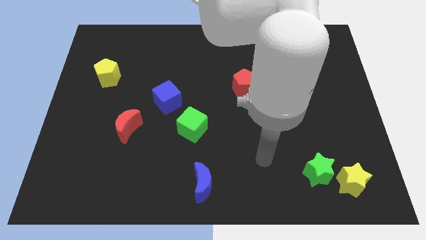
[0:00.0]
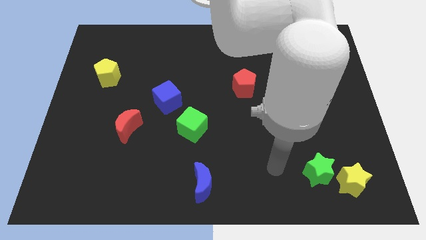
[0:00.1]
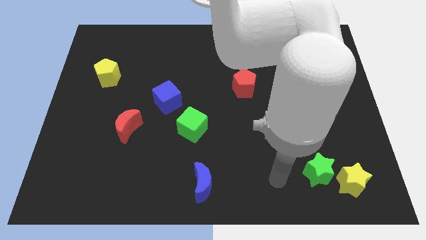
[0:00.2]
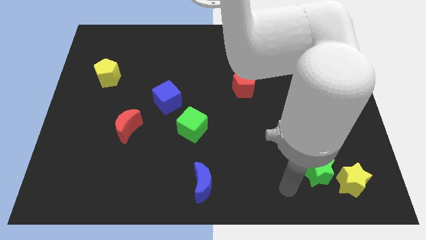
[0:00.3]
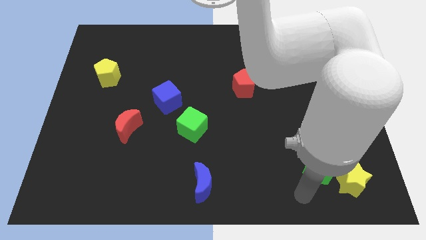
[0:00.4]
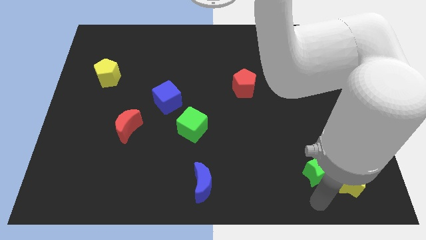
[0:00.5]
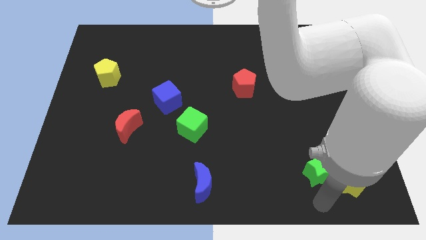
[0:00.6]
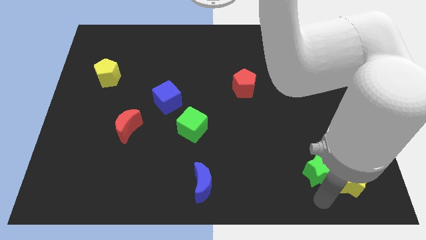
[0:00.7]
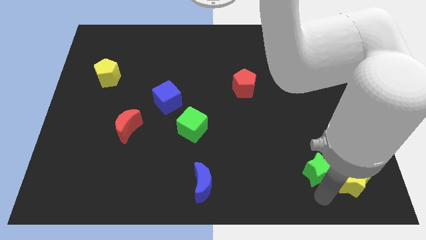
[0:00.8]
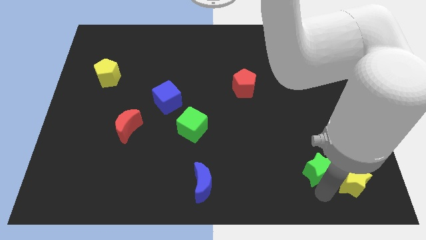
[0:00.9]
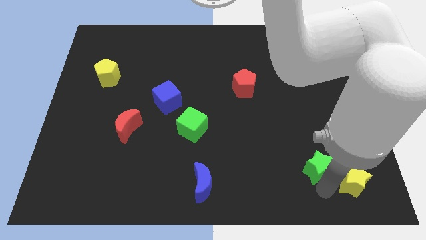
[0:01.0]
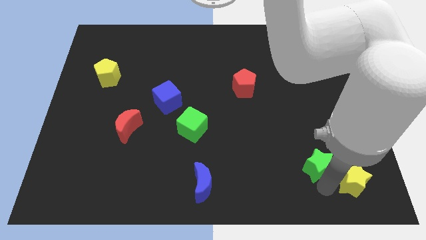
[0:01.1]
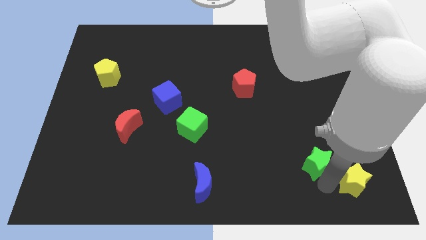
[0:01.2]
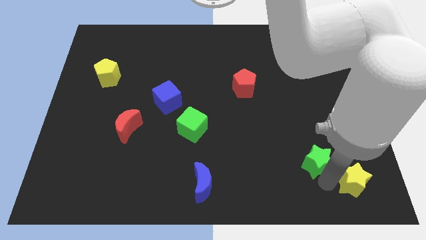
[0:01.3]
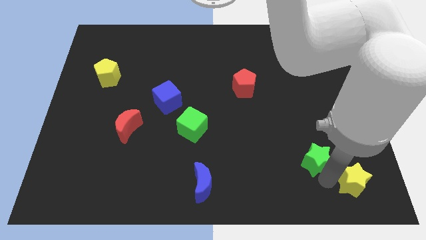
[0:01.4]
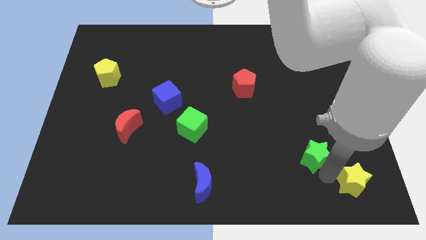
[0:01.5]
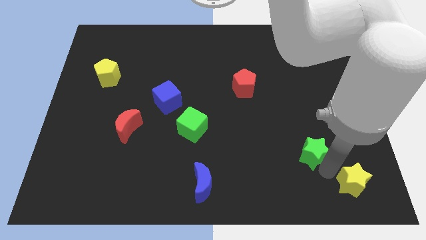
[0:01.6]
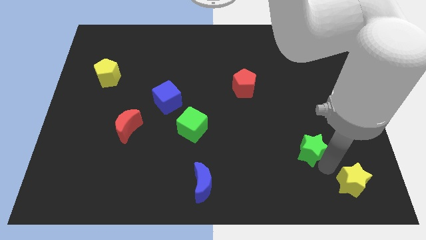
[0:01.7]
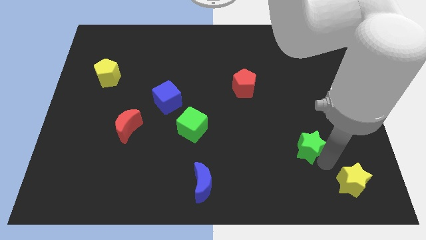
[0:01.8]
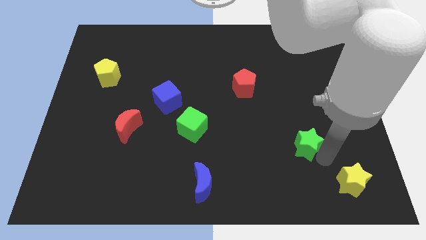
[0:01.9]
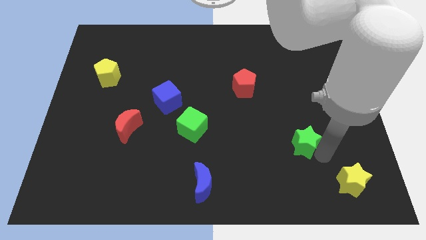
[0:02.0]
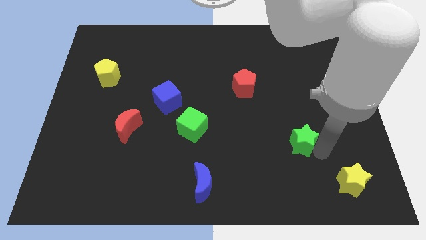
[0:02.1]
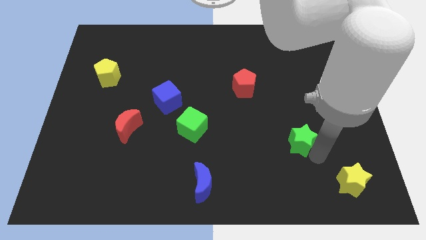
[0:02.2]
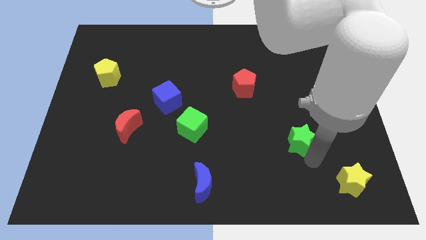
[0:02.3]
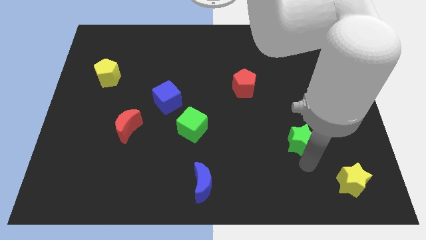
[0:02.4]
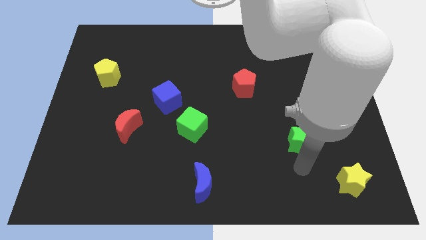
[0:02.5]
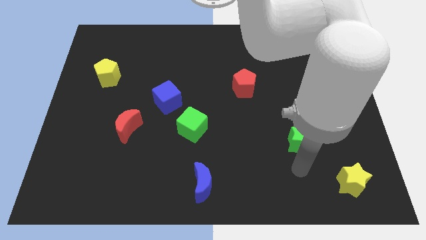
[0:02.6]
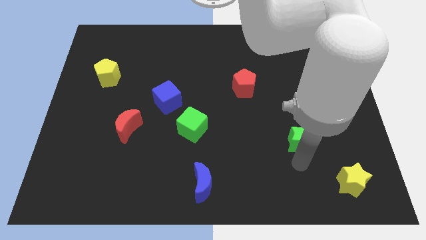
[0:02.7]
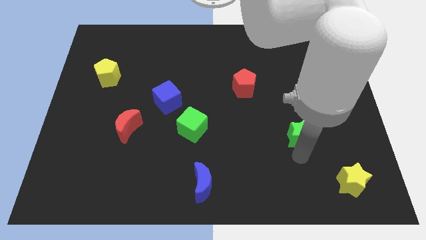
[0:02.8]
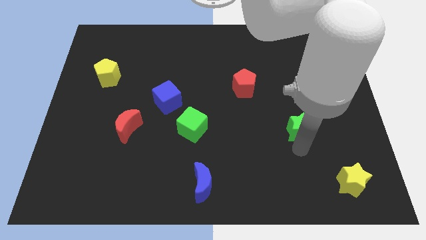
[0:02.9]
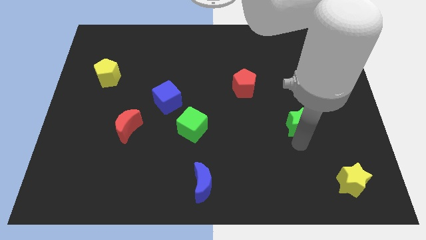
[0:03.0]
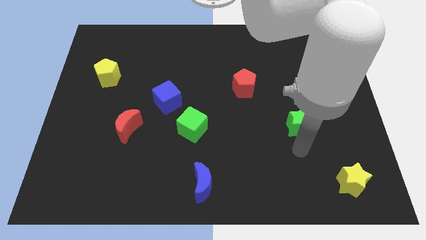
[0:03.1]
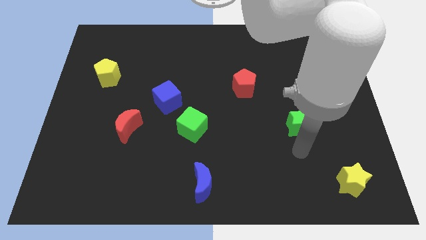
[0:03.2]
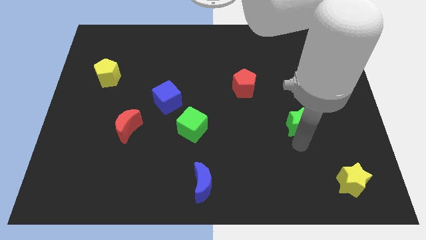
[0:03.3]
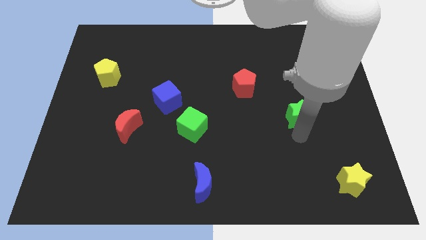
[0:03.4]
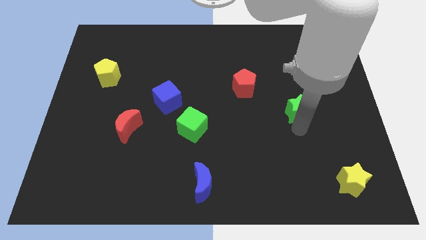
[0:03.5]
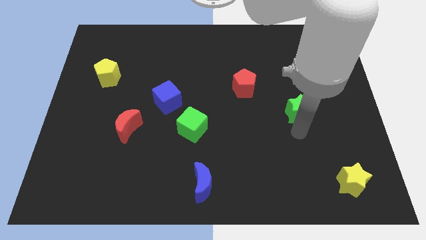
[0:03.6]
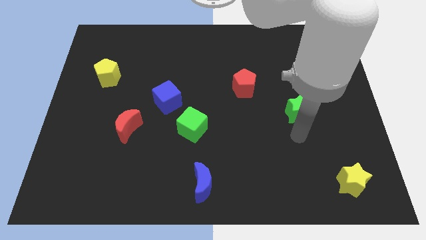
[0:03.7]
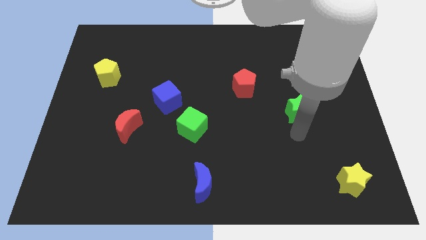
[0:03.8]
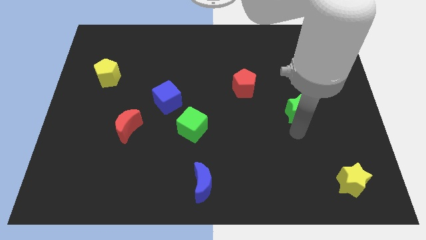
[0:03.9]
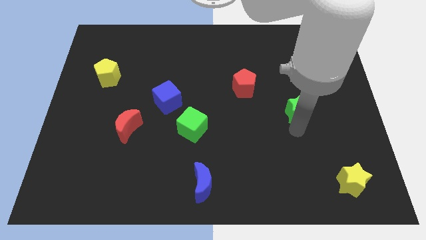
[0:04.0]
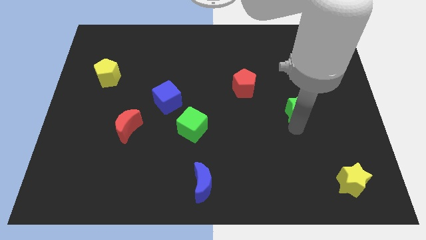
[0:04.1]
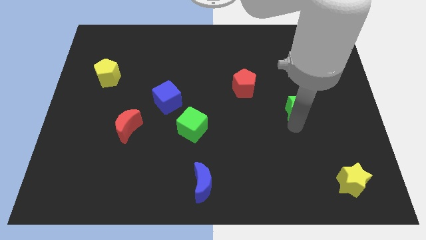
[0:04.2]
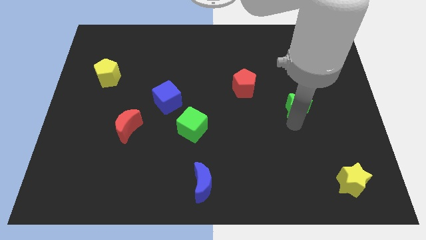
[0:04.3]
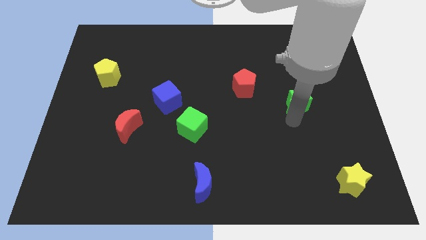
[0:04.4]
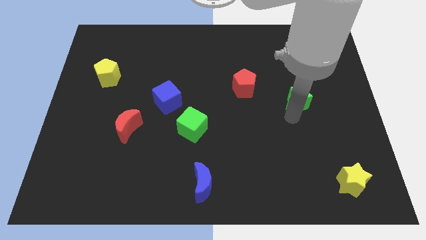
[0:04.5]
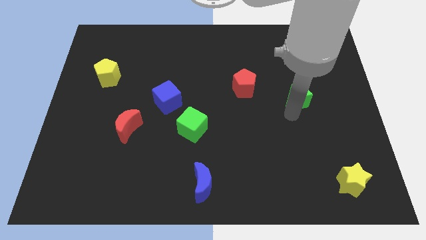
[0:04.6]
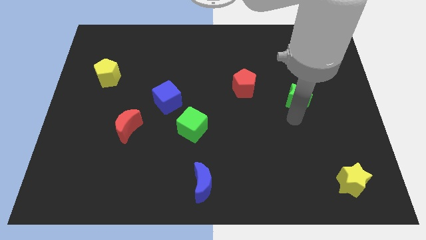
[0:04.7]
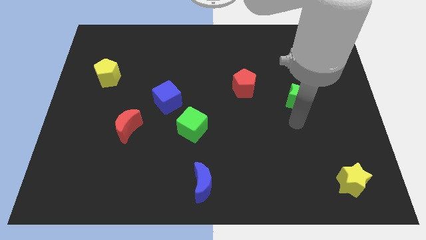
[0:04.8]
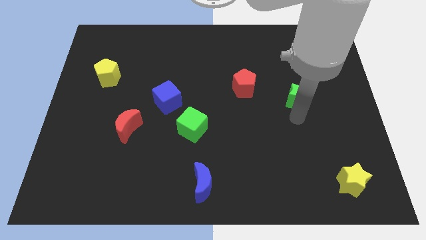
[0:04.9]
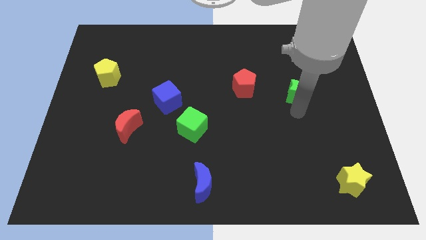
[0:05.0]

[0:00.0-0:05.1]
slide the green star up

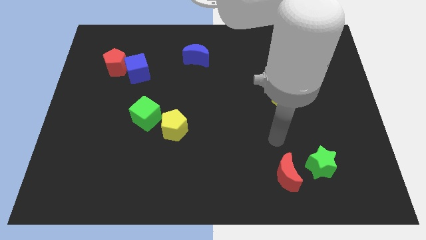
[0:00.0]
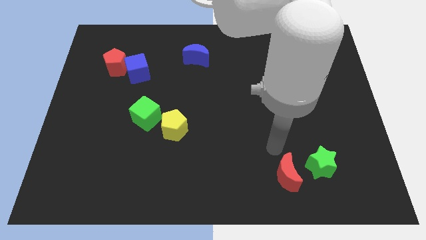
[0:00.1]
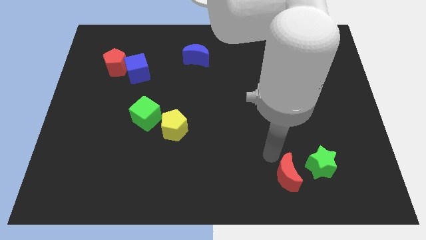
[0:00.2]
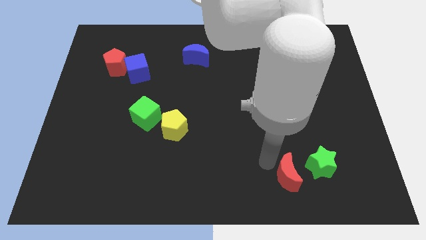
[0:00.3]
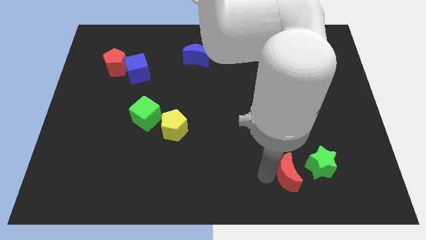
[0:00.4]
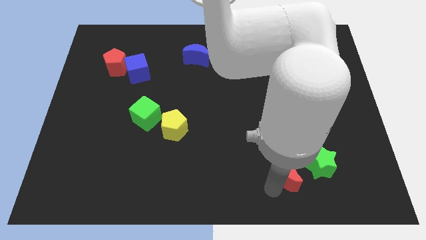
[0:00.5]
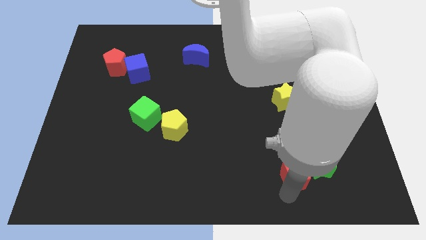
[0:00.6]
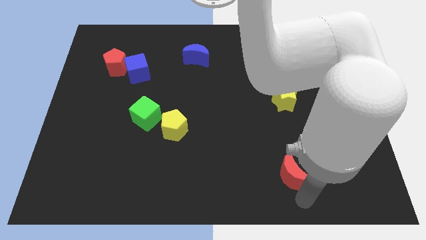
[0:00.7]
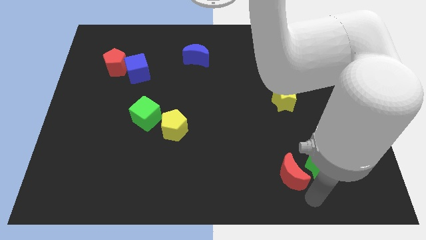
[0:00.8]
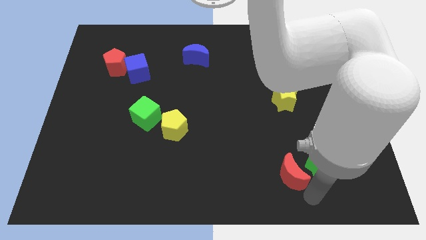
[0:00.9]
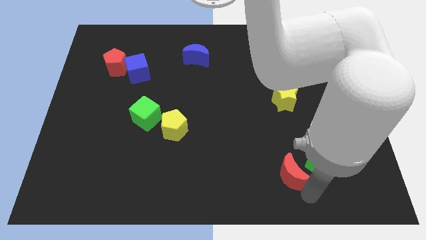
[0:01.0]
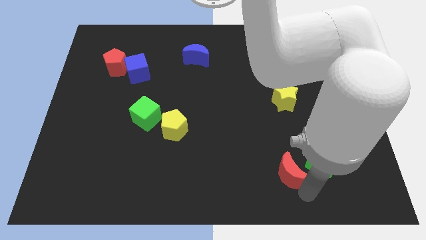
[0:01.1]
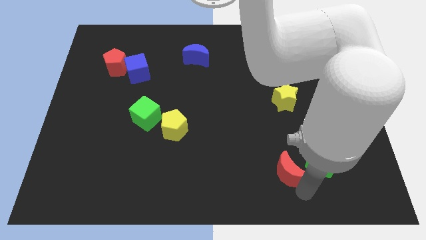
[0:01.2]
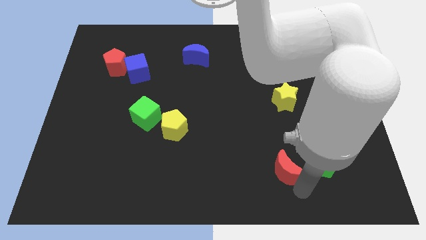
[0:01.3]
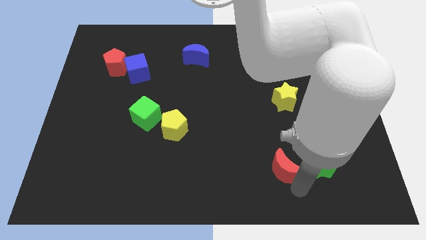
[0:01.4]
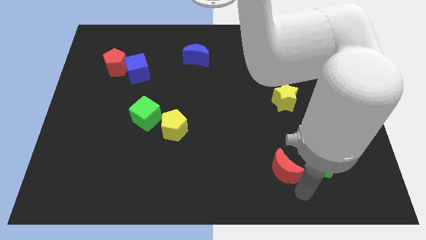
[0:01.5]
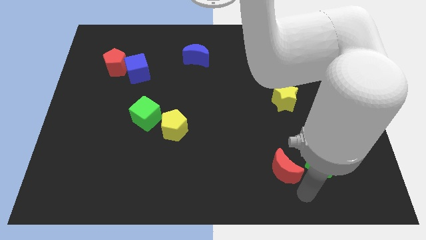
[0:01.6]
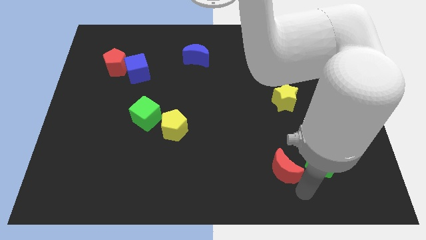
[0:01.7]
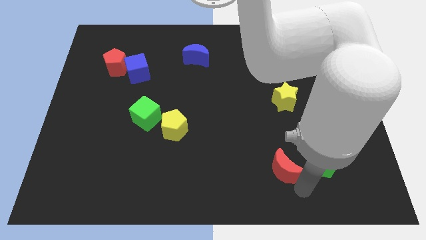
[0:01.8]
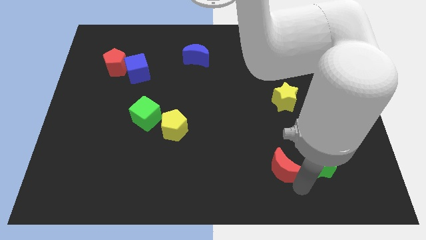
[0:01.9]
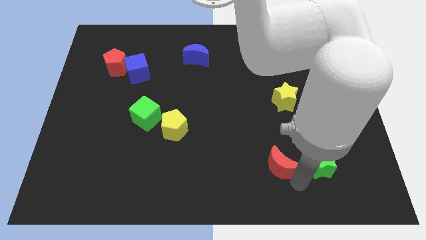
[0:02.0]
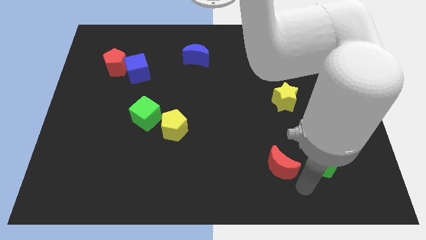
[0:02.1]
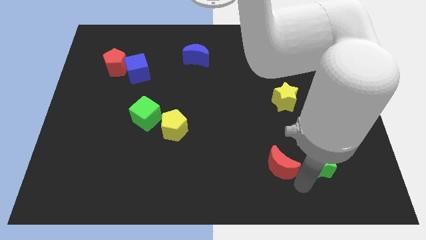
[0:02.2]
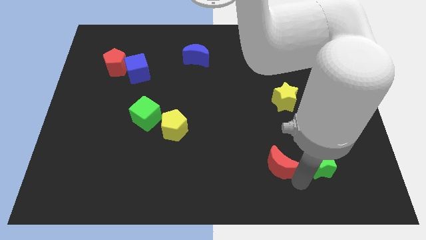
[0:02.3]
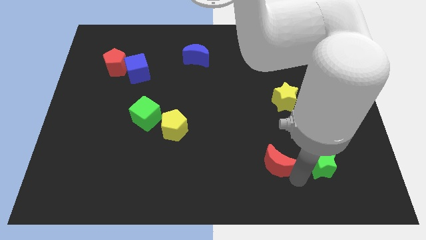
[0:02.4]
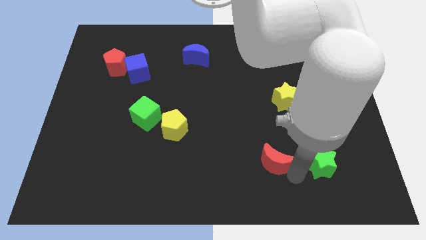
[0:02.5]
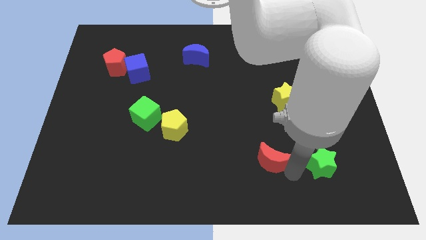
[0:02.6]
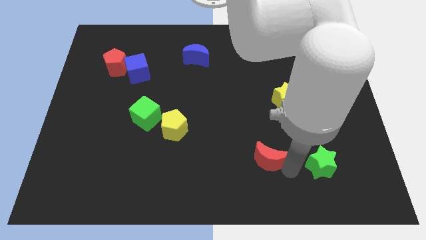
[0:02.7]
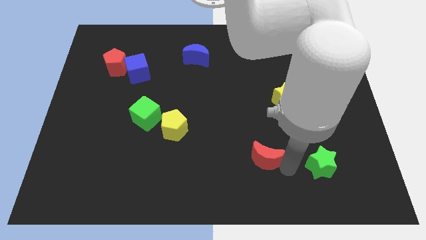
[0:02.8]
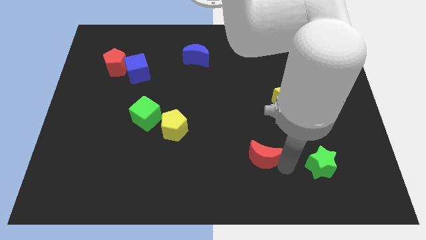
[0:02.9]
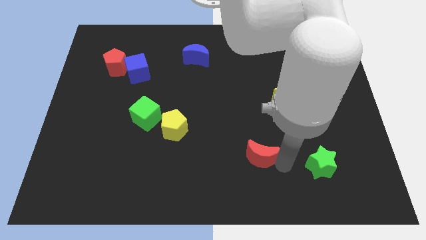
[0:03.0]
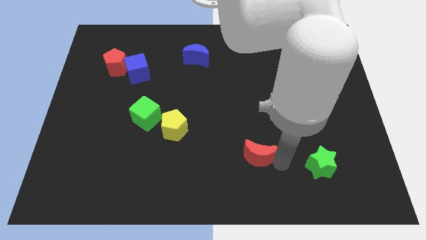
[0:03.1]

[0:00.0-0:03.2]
move the red moon a bit up and to the left
